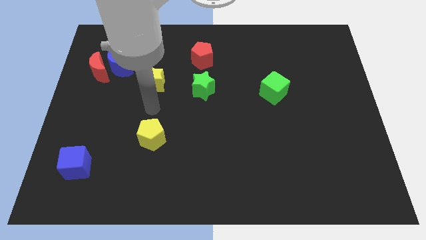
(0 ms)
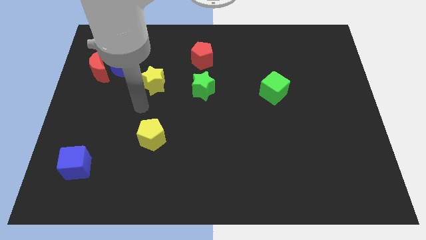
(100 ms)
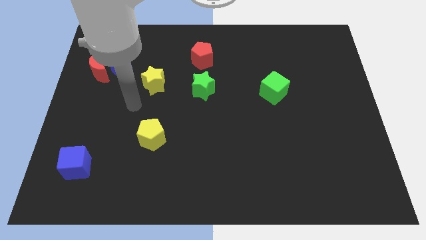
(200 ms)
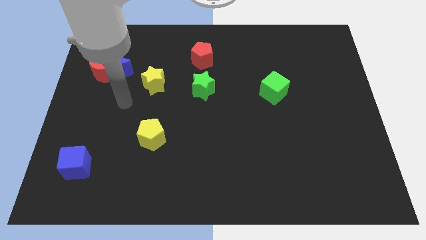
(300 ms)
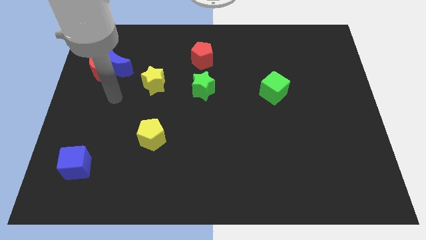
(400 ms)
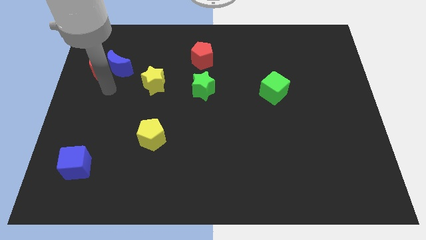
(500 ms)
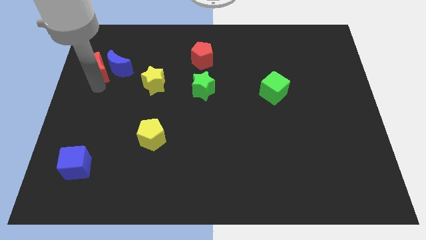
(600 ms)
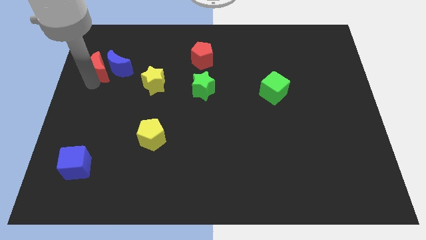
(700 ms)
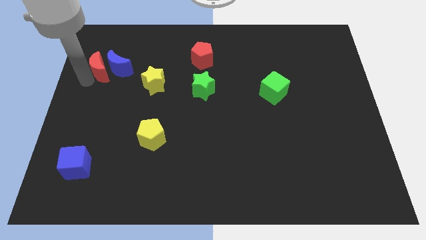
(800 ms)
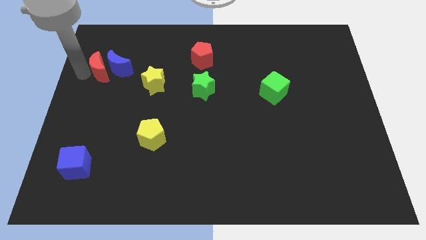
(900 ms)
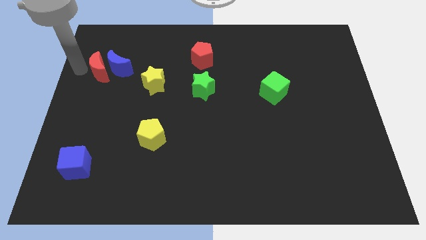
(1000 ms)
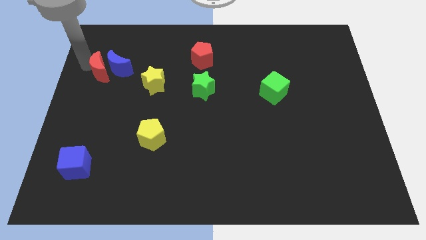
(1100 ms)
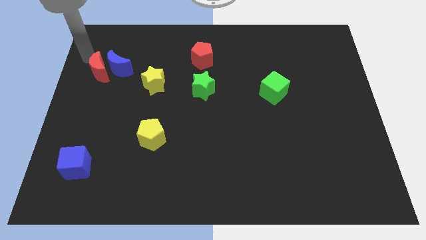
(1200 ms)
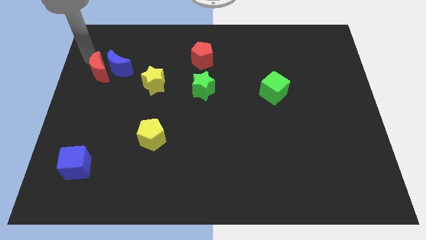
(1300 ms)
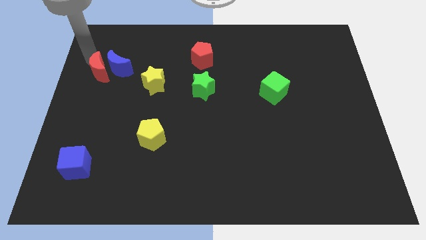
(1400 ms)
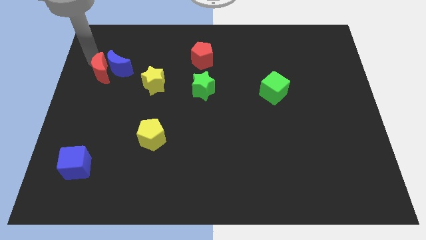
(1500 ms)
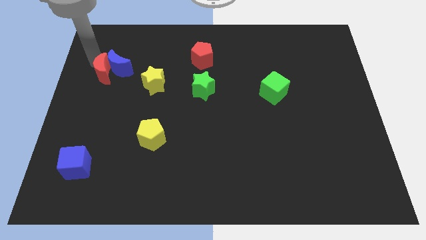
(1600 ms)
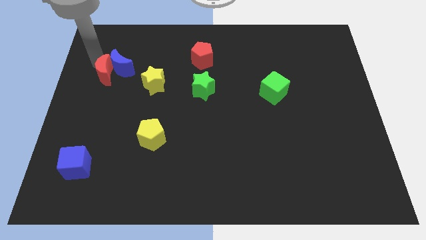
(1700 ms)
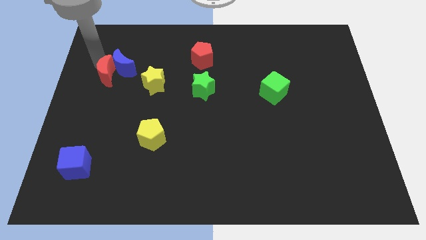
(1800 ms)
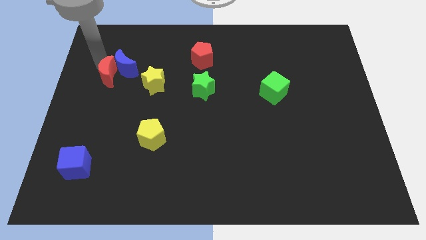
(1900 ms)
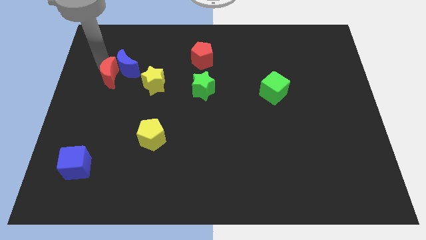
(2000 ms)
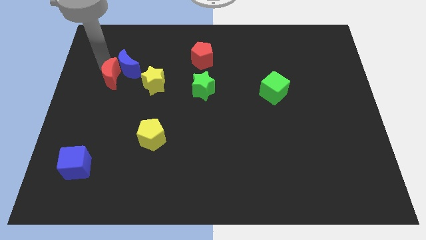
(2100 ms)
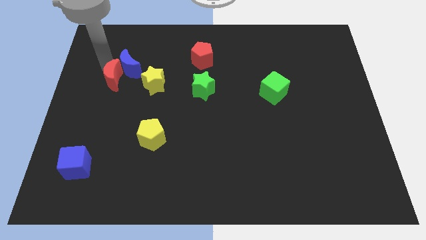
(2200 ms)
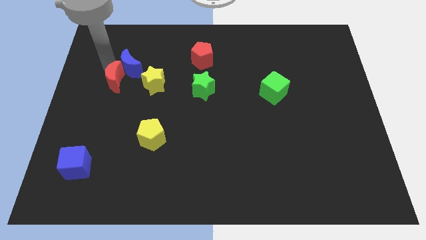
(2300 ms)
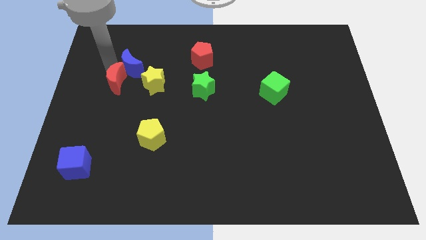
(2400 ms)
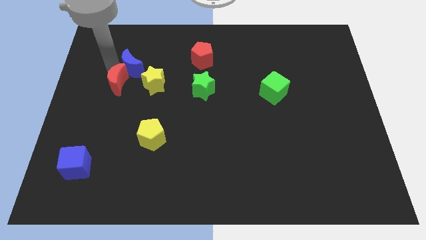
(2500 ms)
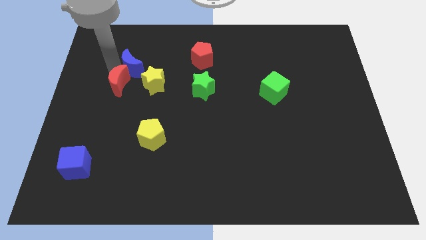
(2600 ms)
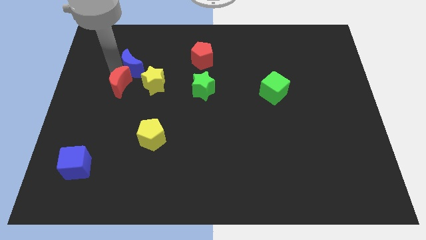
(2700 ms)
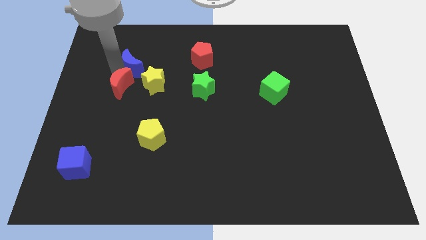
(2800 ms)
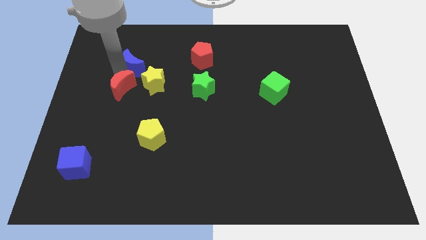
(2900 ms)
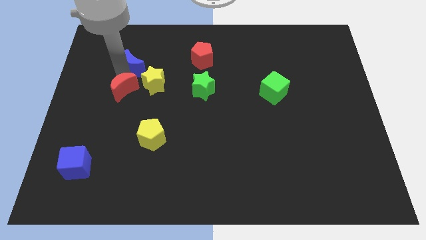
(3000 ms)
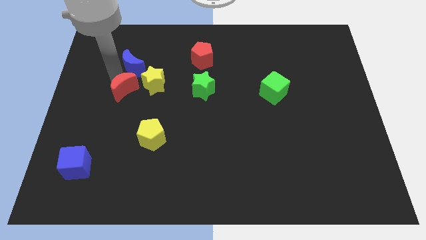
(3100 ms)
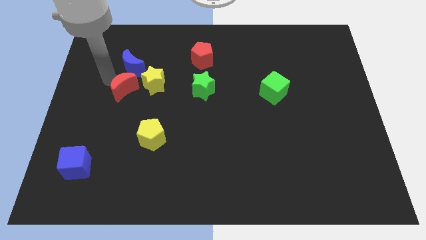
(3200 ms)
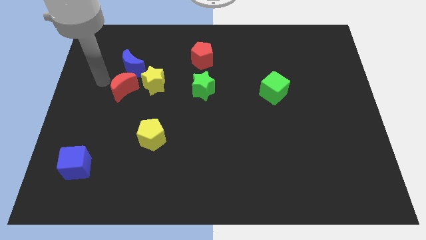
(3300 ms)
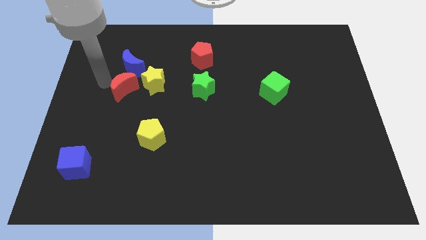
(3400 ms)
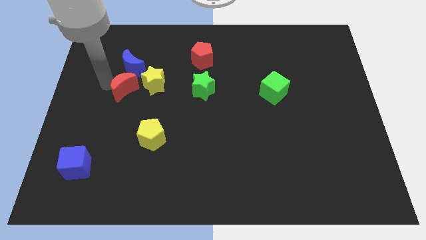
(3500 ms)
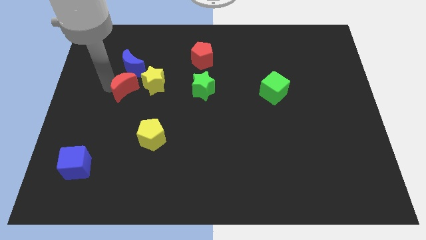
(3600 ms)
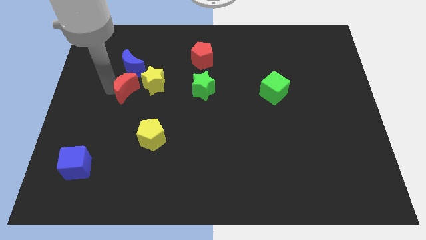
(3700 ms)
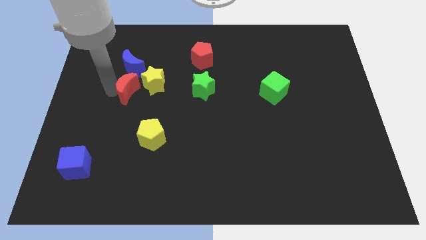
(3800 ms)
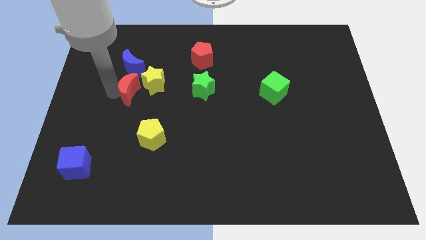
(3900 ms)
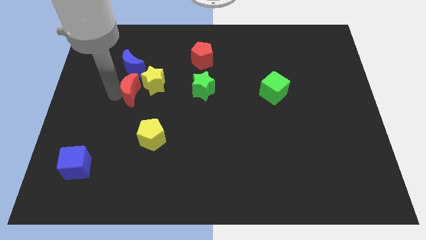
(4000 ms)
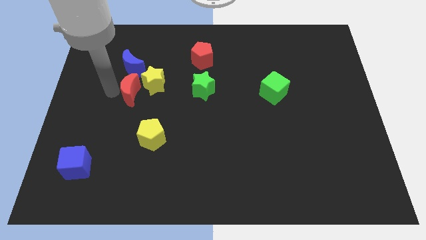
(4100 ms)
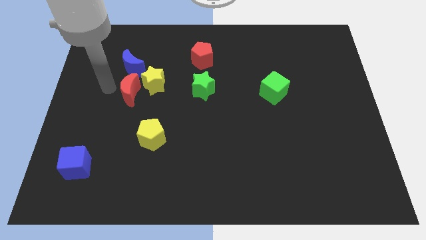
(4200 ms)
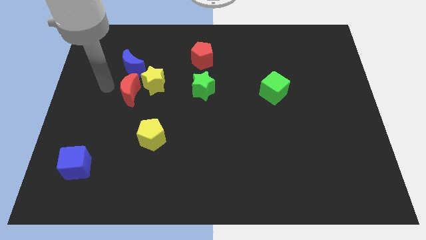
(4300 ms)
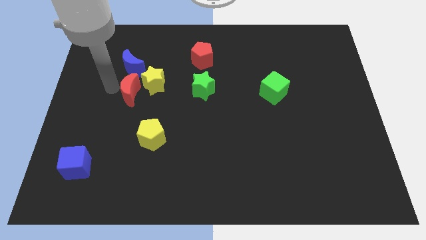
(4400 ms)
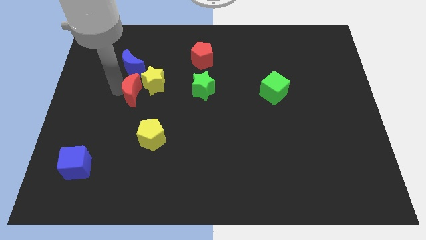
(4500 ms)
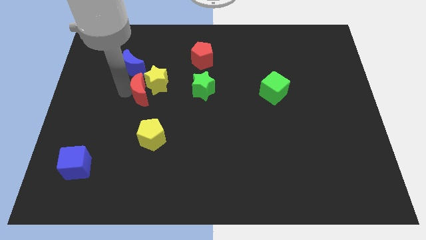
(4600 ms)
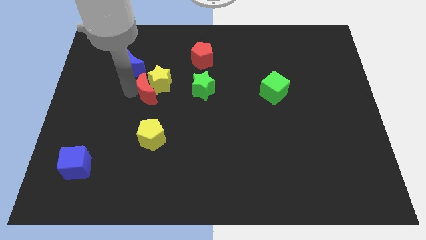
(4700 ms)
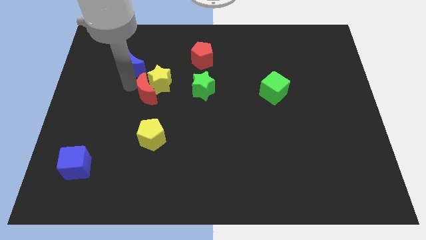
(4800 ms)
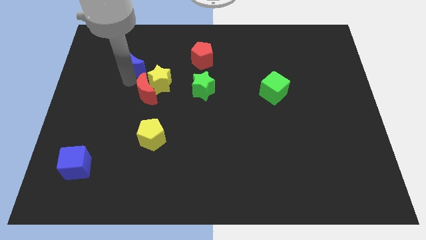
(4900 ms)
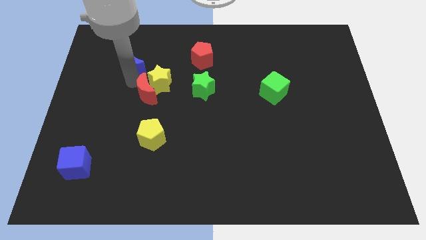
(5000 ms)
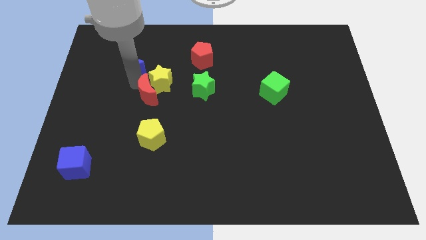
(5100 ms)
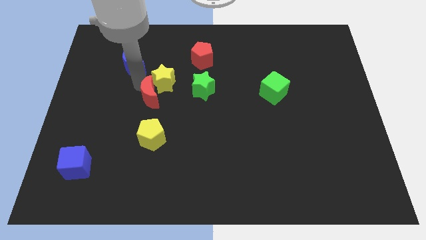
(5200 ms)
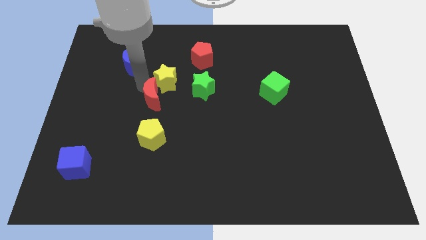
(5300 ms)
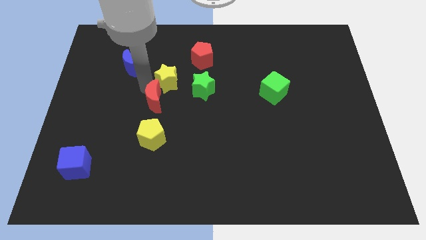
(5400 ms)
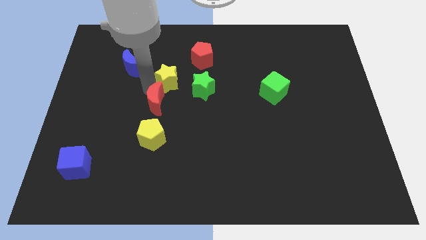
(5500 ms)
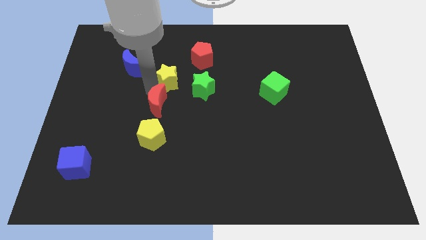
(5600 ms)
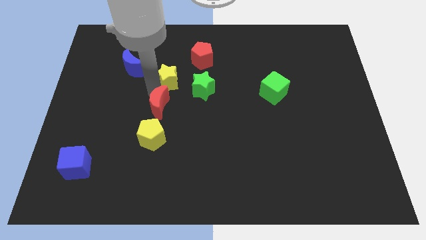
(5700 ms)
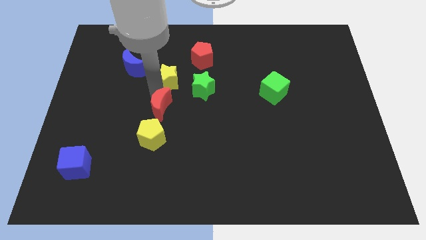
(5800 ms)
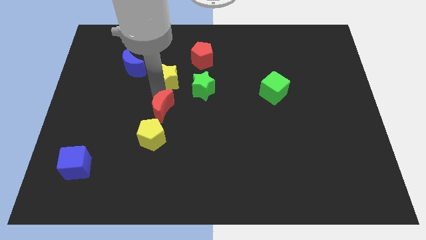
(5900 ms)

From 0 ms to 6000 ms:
slide the red moon to the top right side of the yellow pentagon

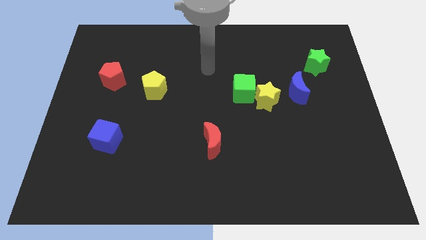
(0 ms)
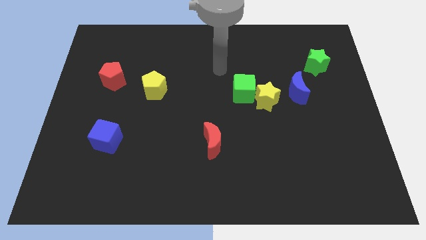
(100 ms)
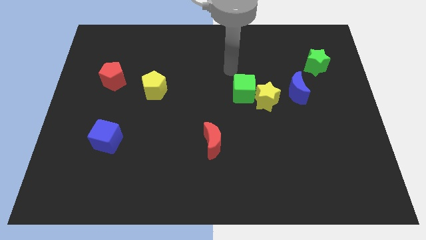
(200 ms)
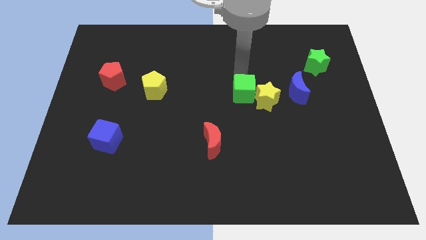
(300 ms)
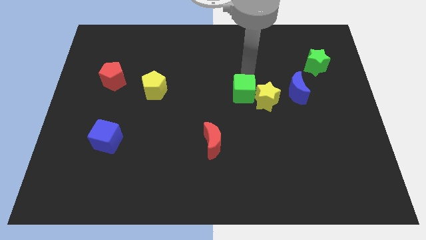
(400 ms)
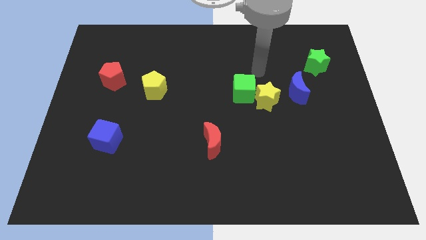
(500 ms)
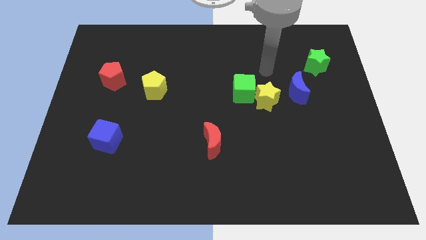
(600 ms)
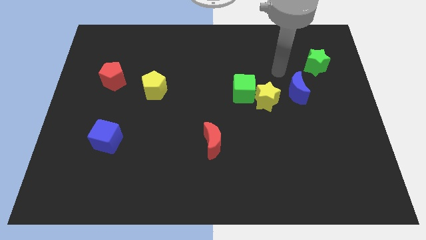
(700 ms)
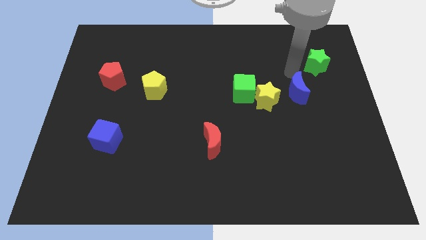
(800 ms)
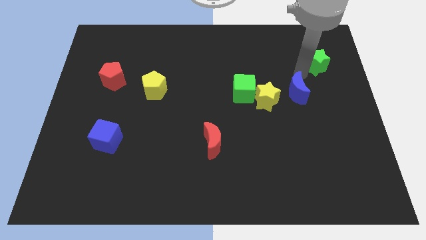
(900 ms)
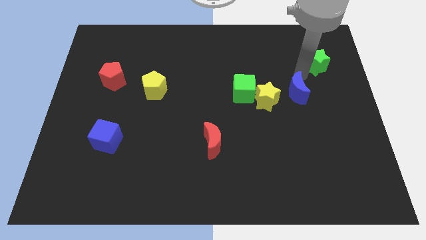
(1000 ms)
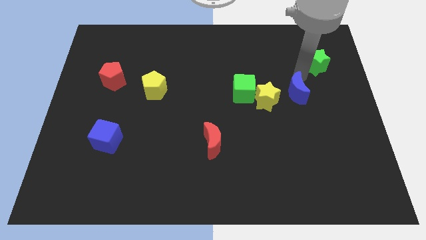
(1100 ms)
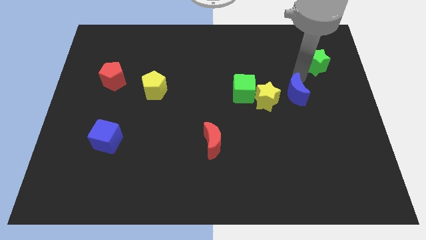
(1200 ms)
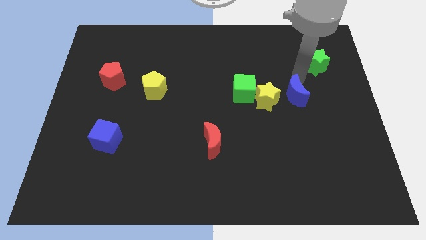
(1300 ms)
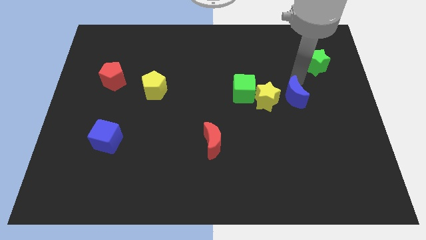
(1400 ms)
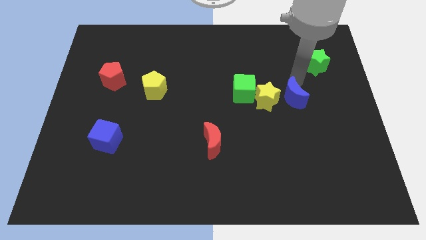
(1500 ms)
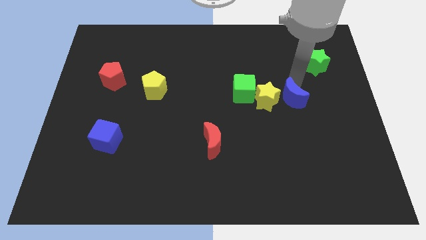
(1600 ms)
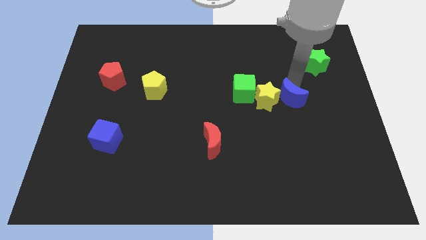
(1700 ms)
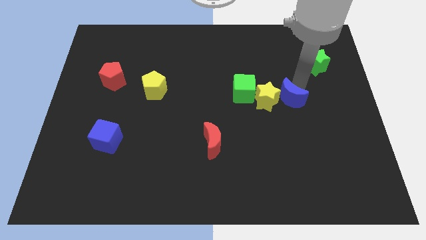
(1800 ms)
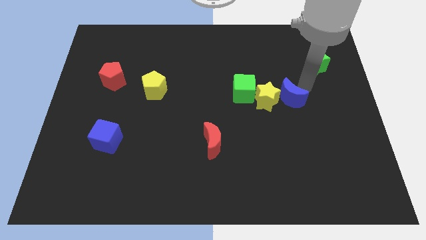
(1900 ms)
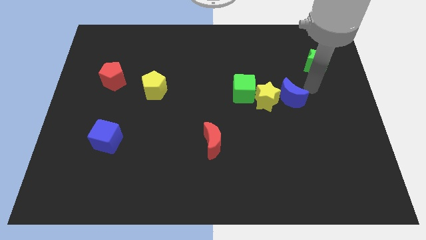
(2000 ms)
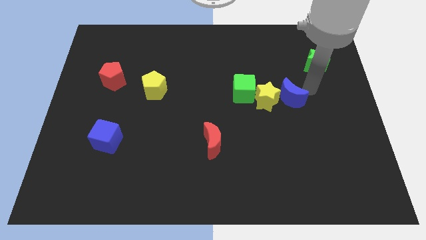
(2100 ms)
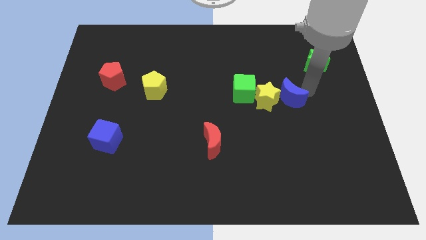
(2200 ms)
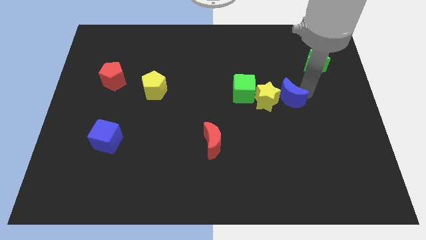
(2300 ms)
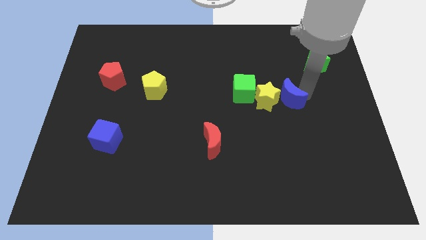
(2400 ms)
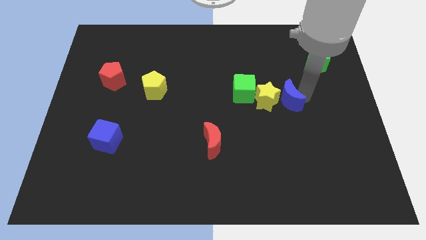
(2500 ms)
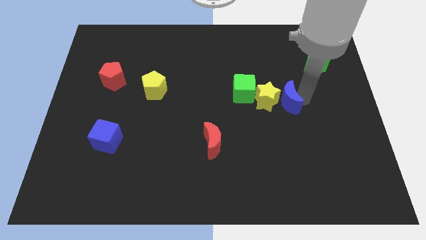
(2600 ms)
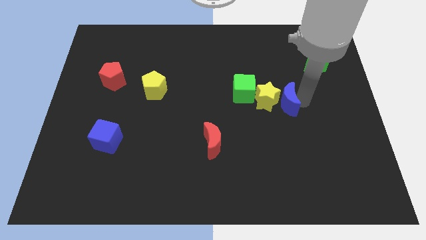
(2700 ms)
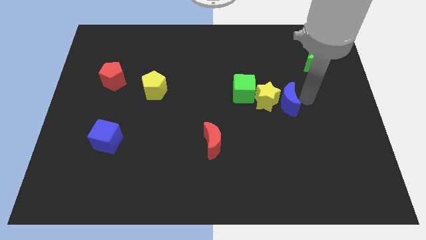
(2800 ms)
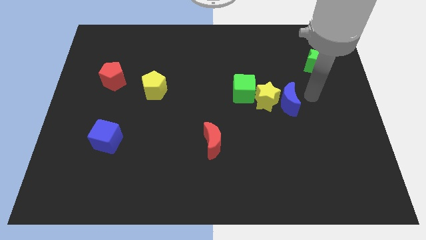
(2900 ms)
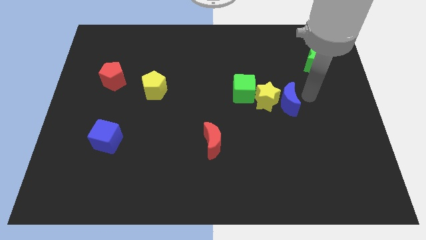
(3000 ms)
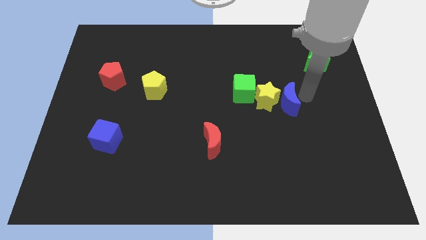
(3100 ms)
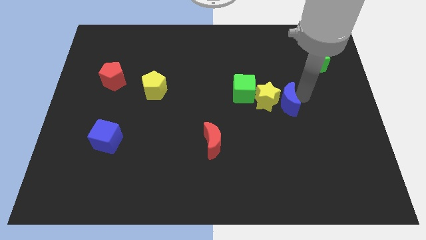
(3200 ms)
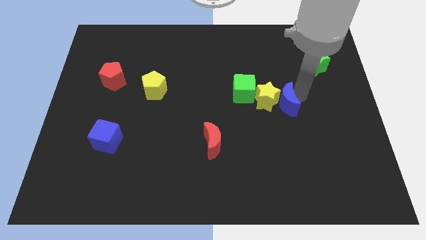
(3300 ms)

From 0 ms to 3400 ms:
slide the blue moon to the bottom right side of the green cube
